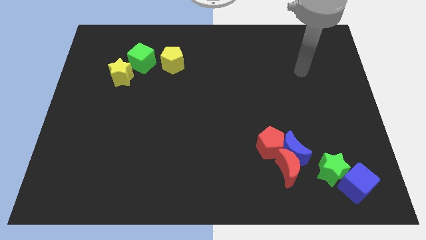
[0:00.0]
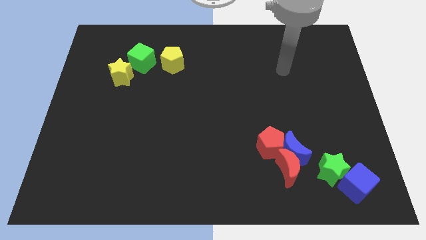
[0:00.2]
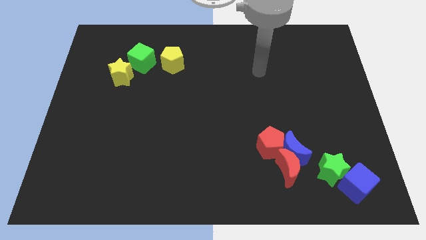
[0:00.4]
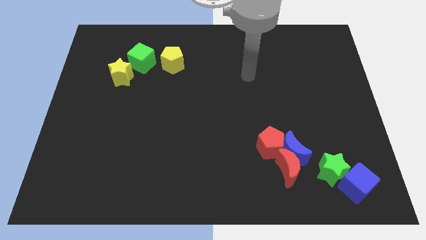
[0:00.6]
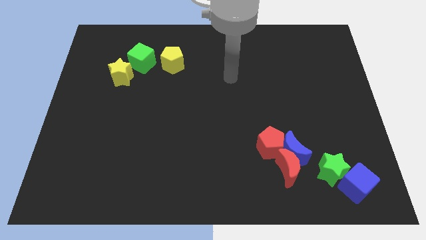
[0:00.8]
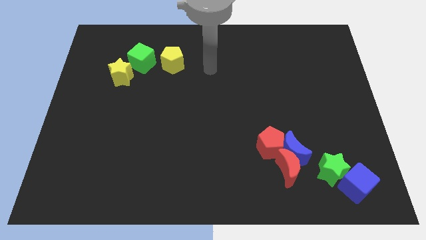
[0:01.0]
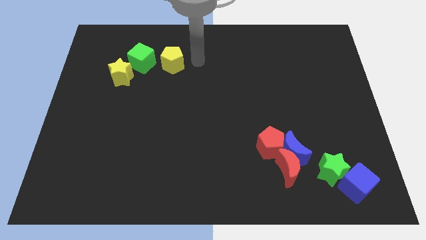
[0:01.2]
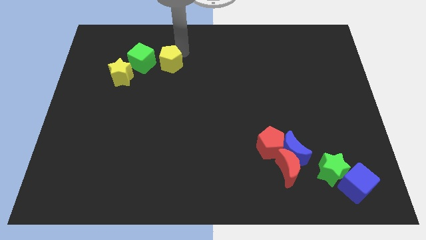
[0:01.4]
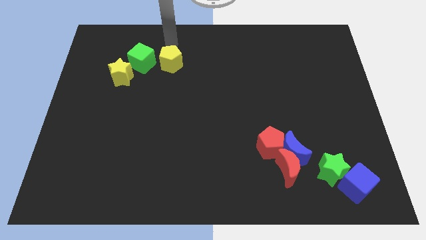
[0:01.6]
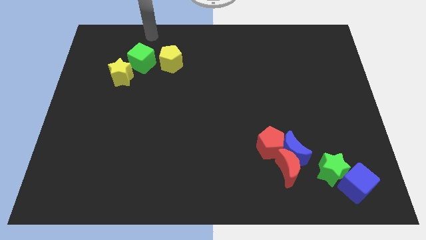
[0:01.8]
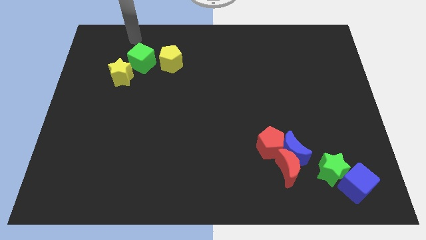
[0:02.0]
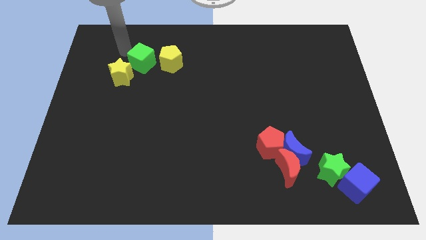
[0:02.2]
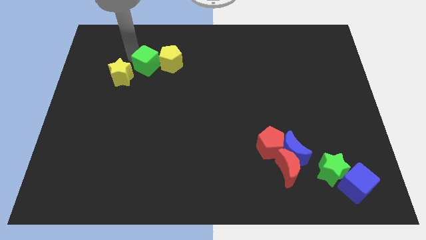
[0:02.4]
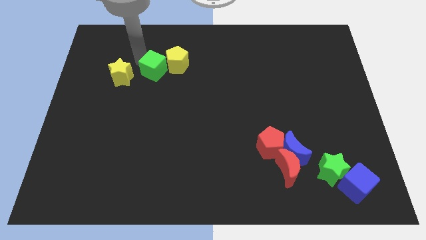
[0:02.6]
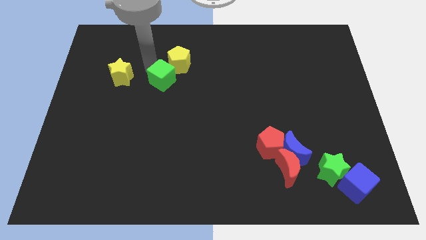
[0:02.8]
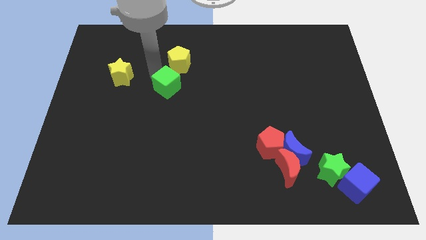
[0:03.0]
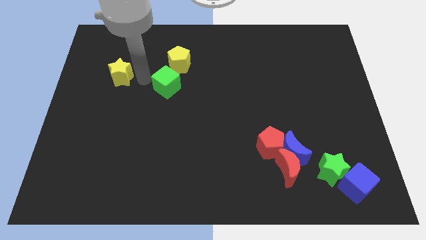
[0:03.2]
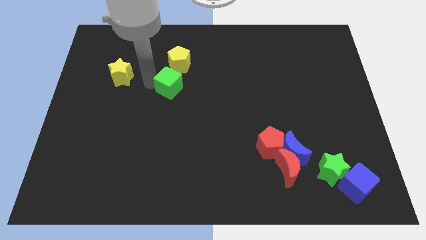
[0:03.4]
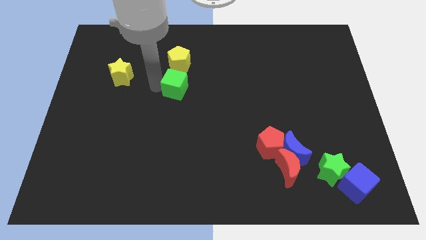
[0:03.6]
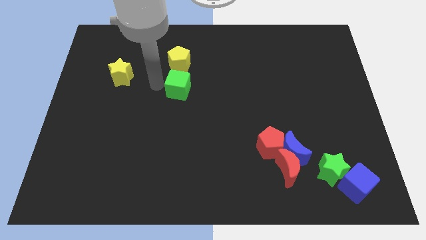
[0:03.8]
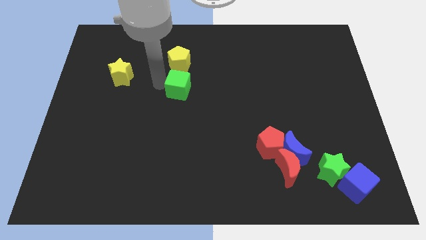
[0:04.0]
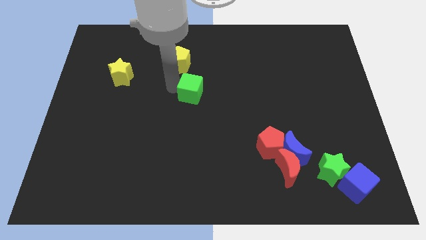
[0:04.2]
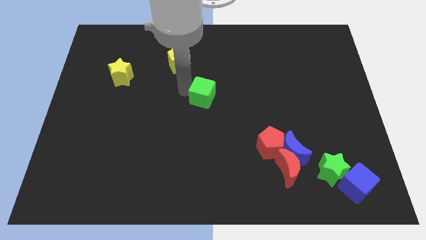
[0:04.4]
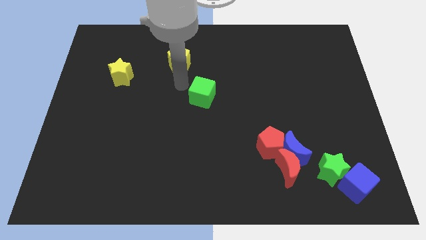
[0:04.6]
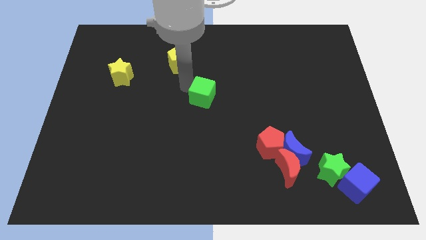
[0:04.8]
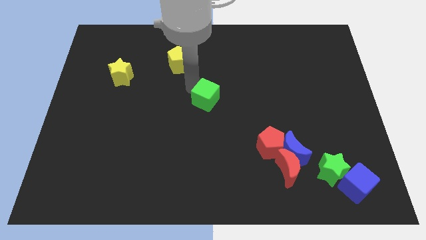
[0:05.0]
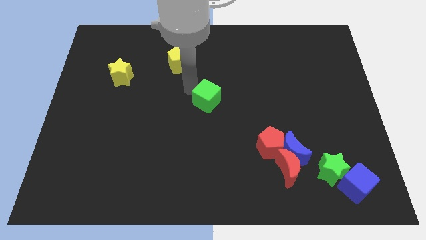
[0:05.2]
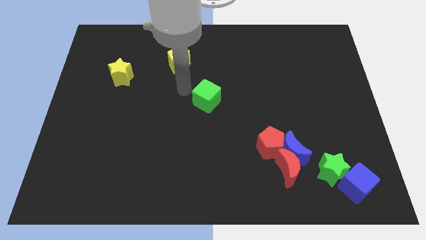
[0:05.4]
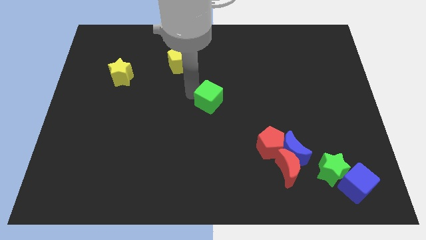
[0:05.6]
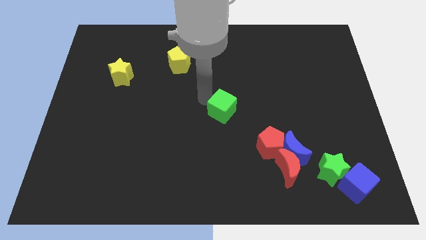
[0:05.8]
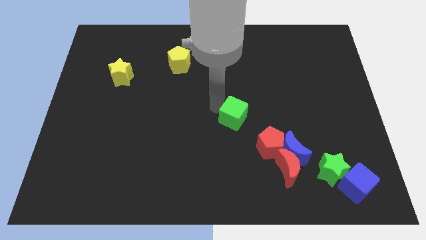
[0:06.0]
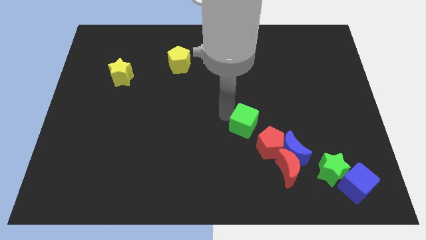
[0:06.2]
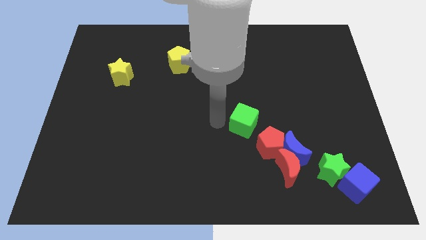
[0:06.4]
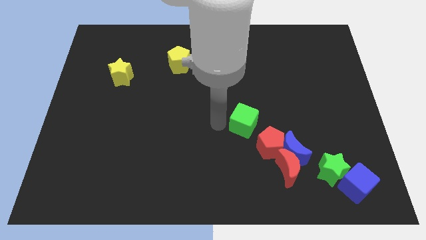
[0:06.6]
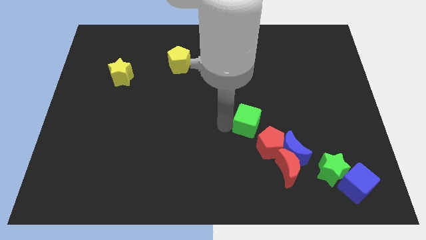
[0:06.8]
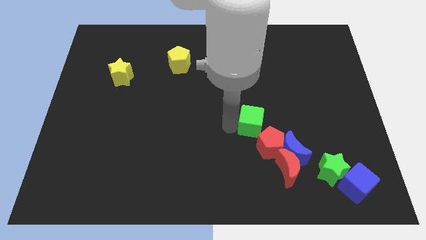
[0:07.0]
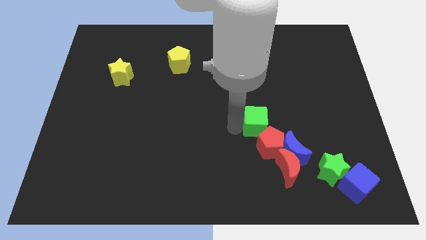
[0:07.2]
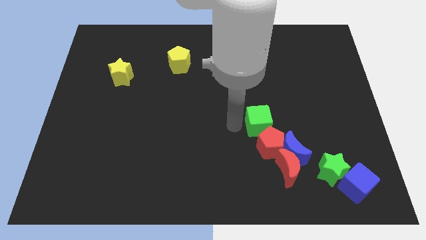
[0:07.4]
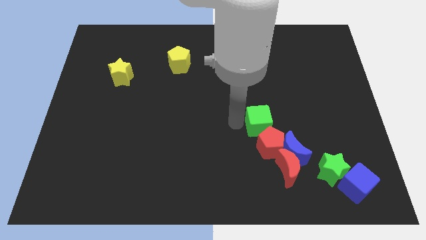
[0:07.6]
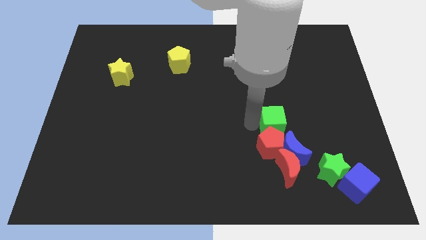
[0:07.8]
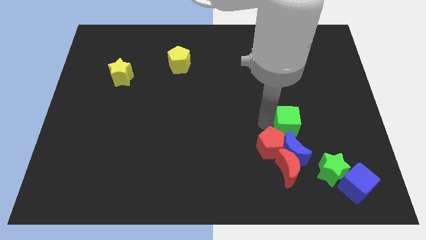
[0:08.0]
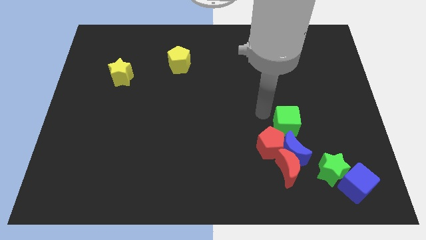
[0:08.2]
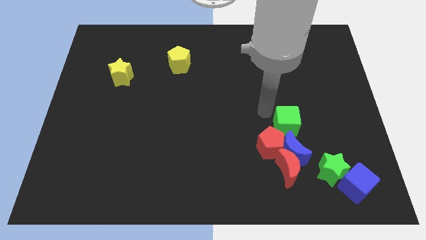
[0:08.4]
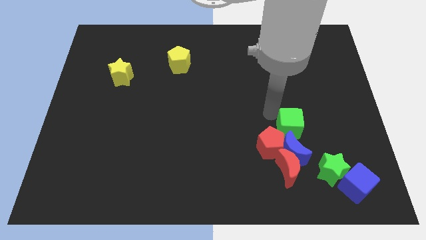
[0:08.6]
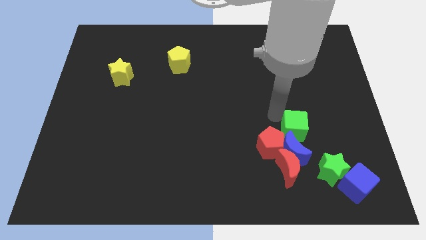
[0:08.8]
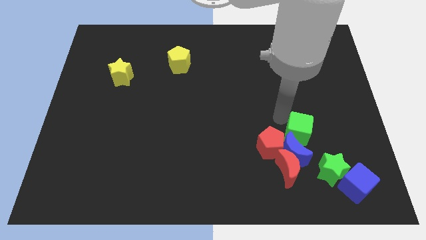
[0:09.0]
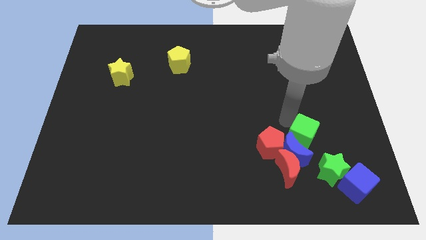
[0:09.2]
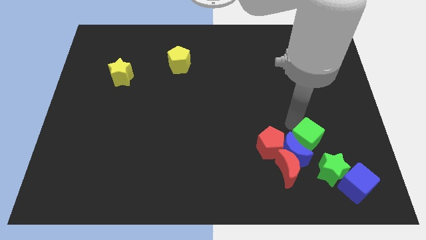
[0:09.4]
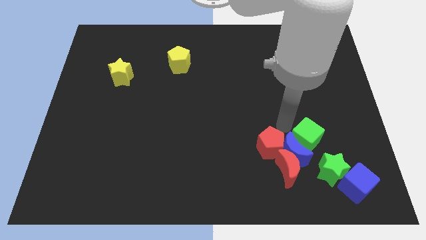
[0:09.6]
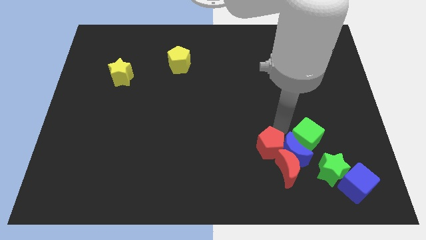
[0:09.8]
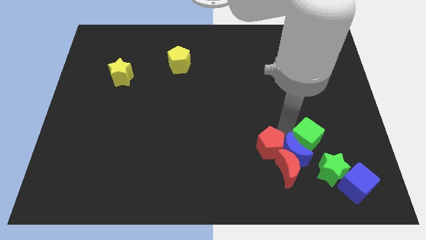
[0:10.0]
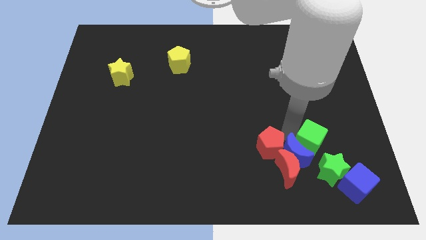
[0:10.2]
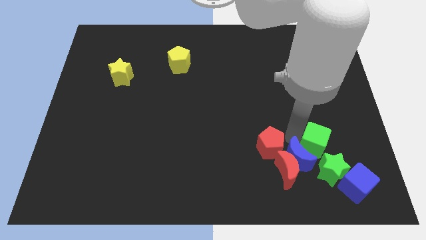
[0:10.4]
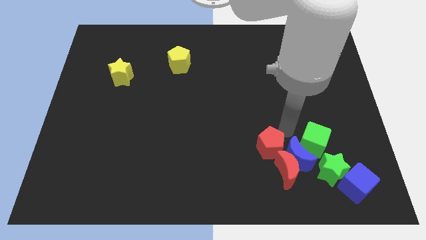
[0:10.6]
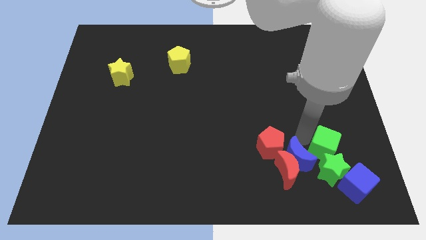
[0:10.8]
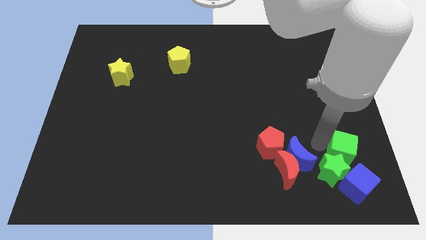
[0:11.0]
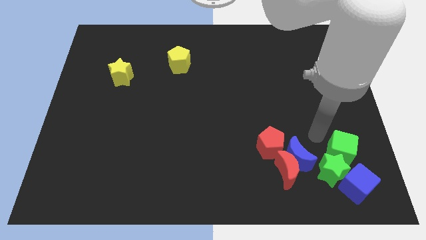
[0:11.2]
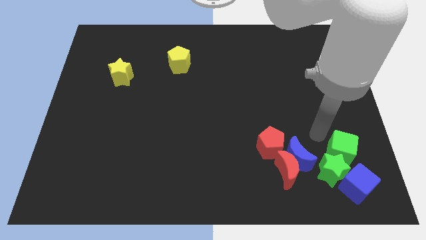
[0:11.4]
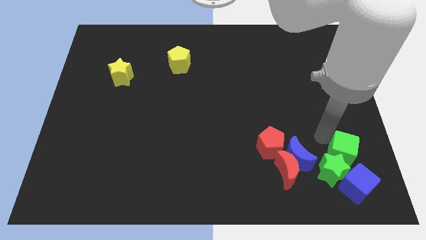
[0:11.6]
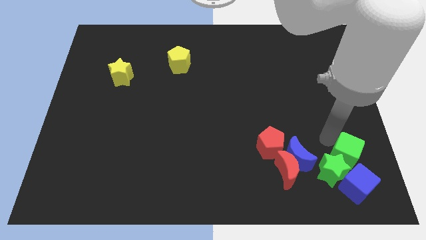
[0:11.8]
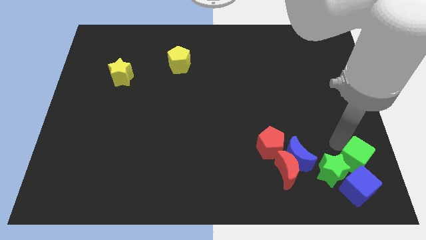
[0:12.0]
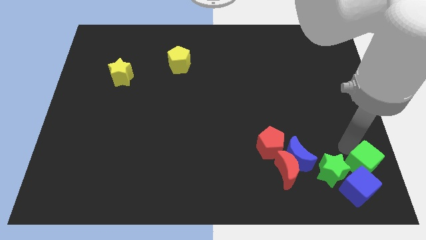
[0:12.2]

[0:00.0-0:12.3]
put the green cube to the bottom right of the board

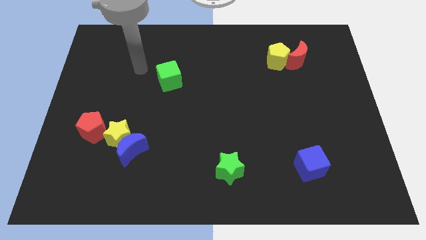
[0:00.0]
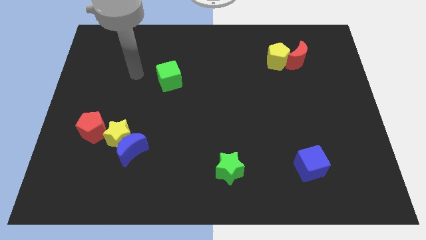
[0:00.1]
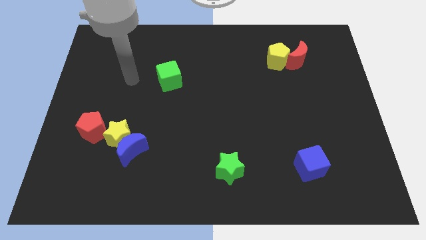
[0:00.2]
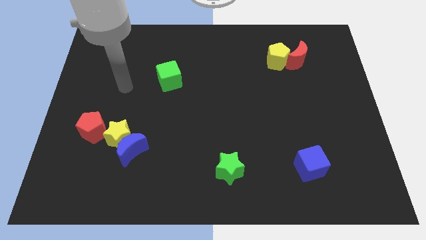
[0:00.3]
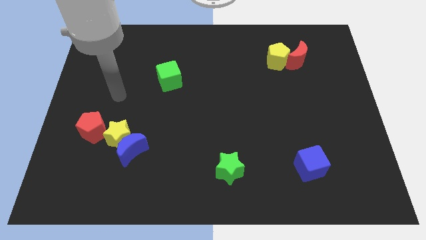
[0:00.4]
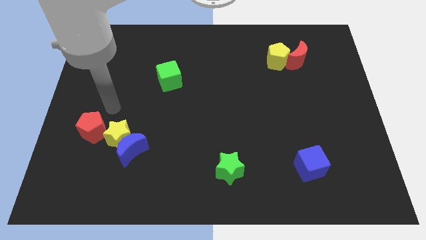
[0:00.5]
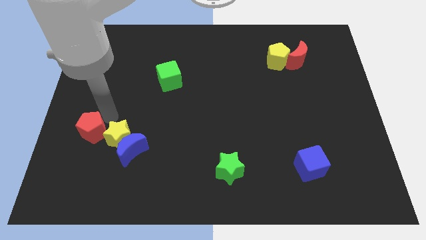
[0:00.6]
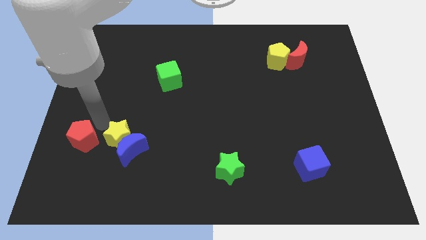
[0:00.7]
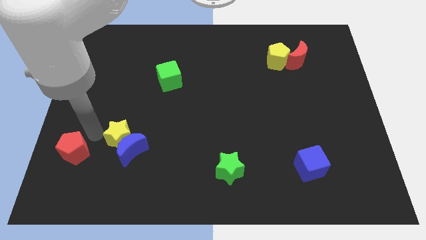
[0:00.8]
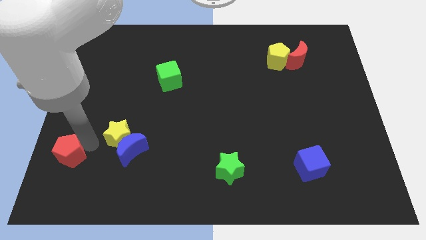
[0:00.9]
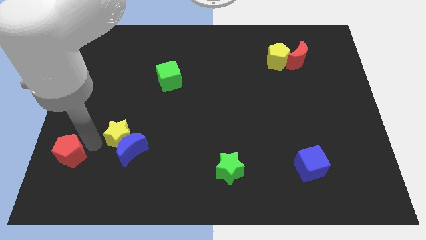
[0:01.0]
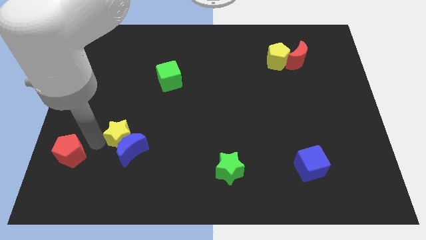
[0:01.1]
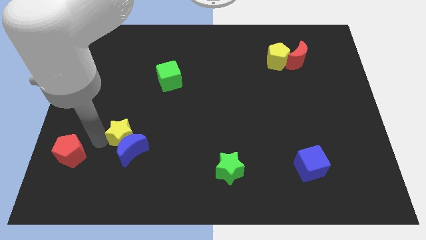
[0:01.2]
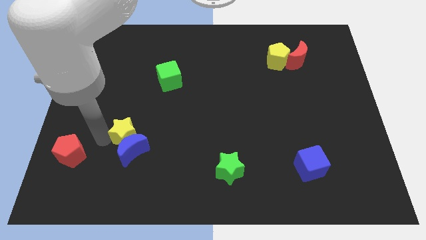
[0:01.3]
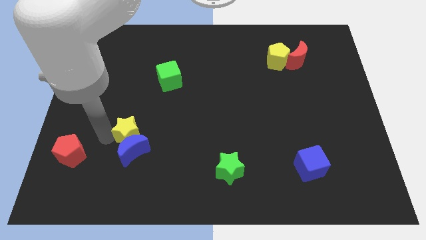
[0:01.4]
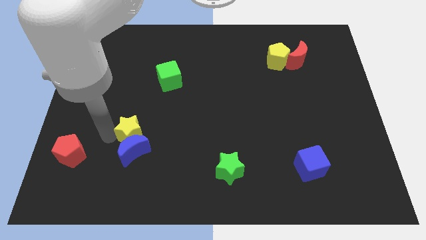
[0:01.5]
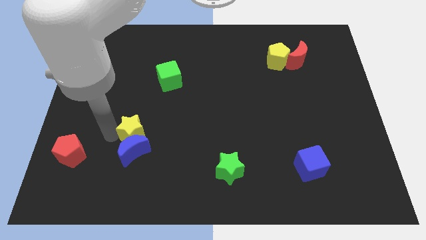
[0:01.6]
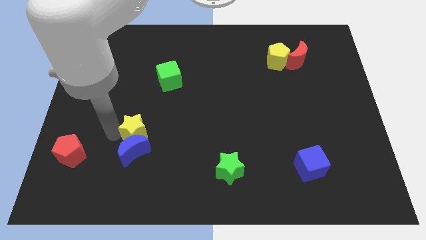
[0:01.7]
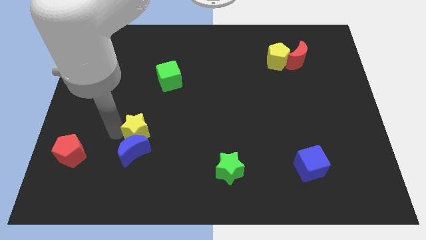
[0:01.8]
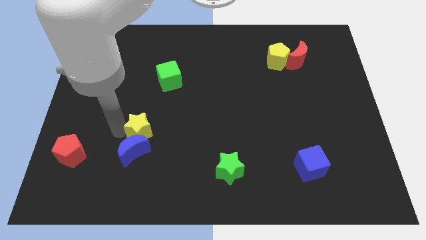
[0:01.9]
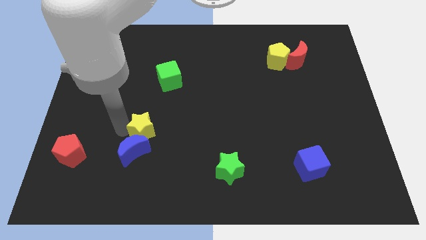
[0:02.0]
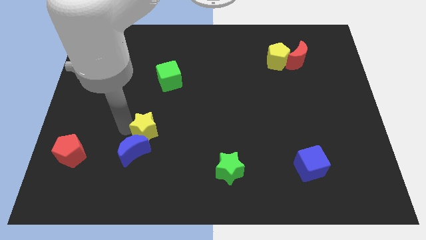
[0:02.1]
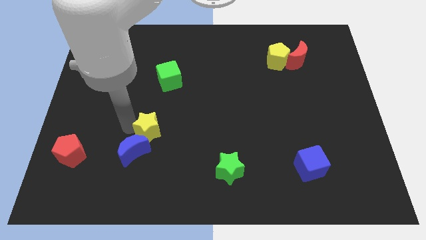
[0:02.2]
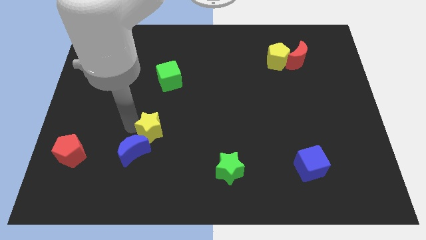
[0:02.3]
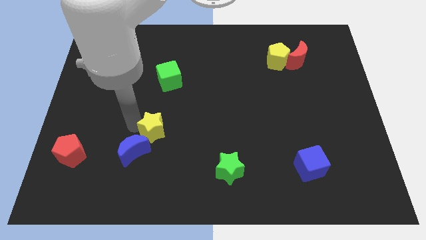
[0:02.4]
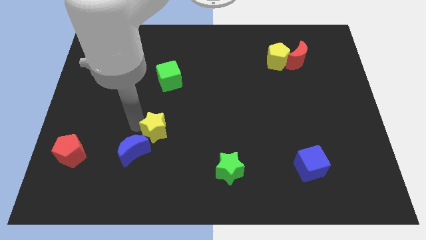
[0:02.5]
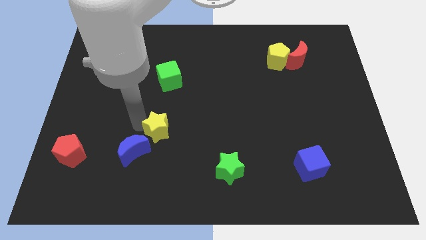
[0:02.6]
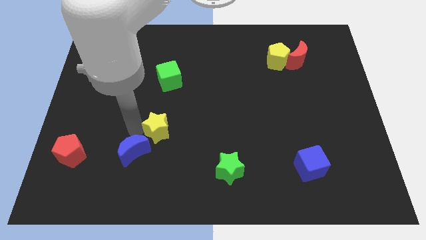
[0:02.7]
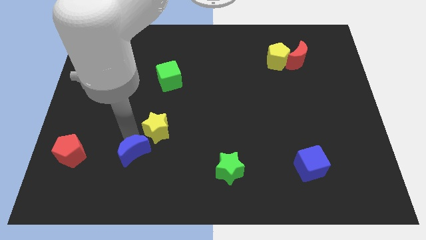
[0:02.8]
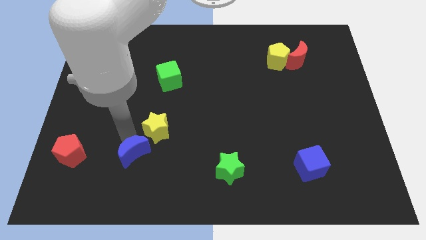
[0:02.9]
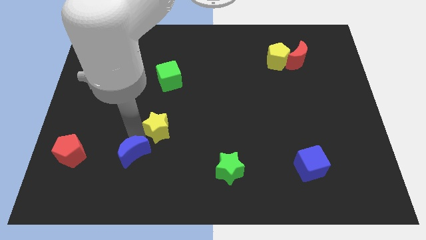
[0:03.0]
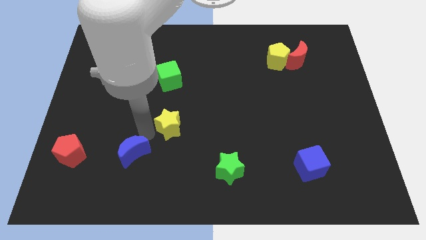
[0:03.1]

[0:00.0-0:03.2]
move the yellow star to the center of the board
